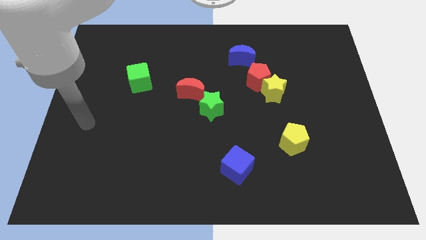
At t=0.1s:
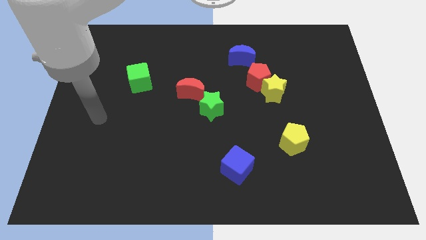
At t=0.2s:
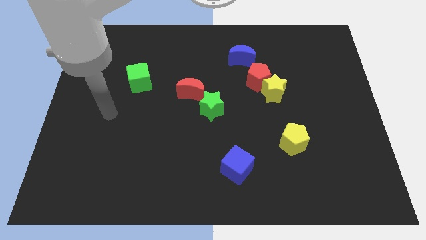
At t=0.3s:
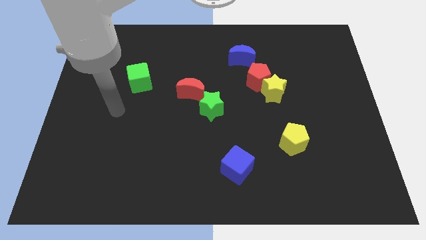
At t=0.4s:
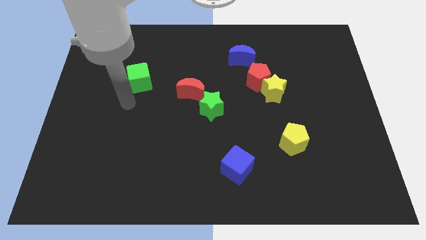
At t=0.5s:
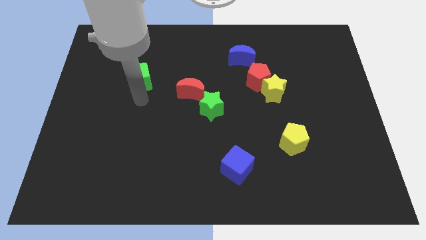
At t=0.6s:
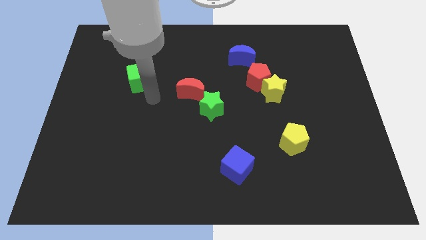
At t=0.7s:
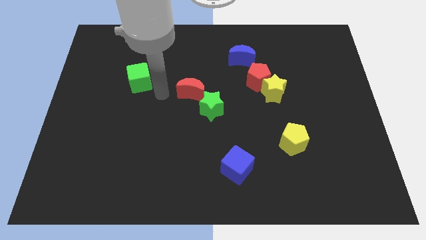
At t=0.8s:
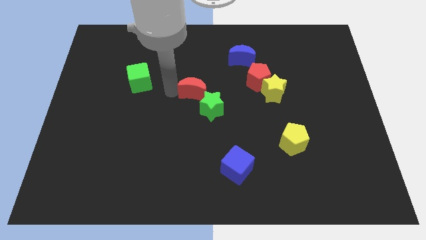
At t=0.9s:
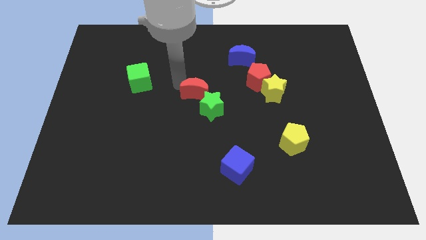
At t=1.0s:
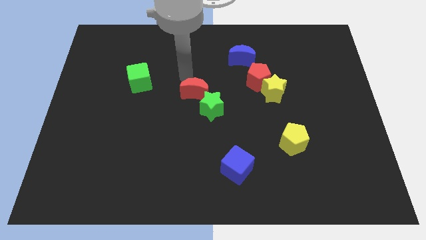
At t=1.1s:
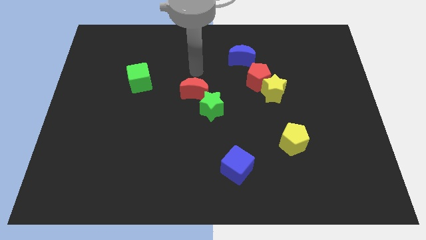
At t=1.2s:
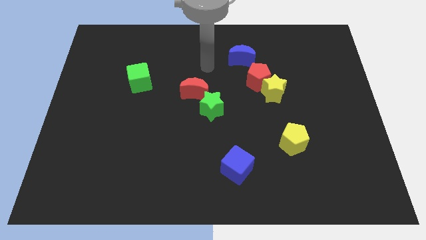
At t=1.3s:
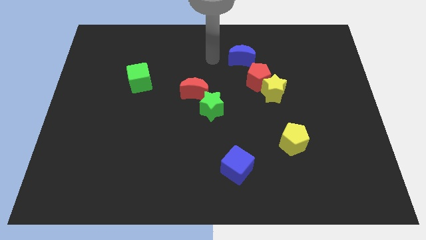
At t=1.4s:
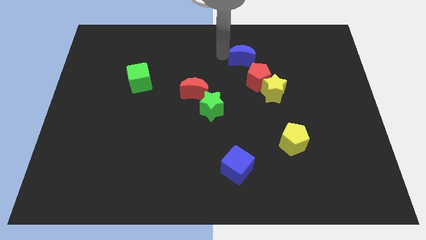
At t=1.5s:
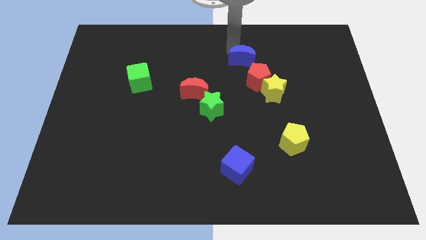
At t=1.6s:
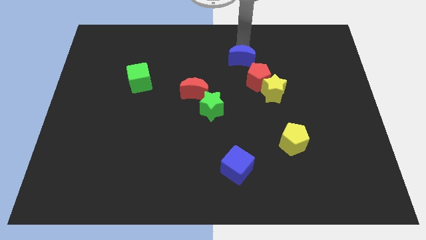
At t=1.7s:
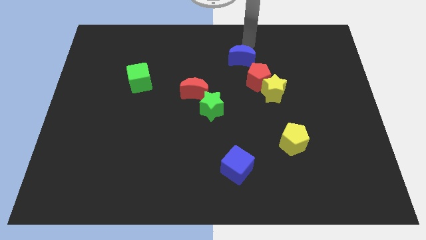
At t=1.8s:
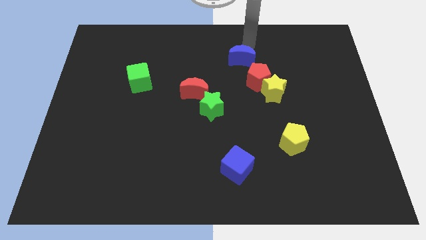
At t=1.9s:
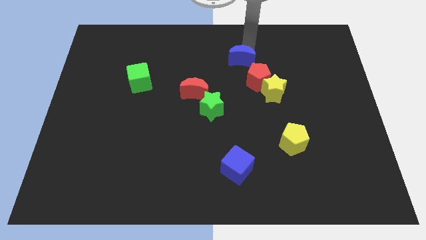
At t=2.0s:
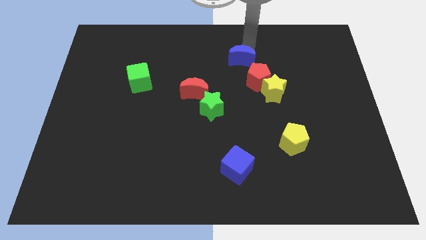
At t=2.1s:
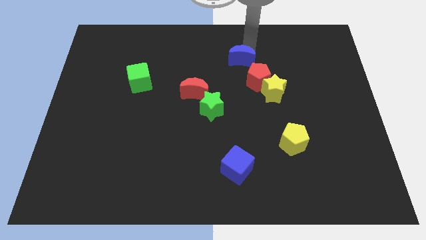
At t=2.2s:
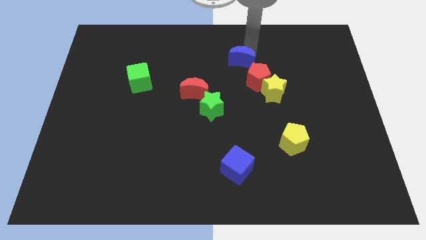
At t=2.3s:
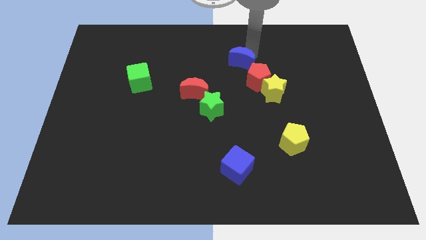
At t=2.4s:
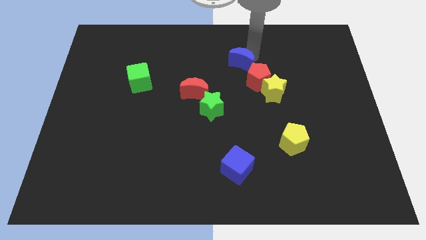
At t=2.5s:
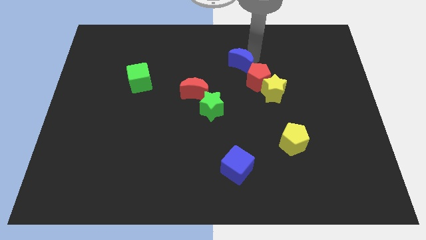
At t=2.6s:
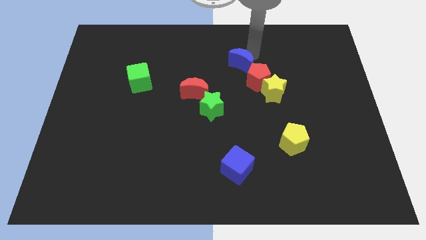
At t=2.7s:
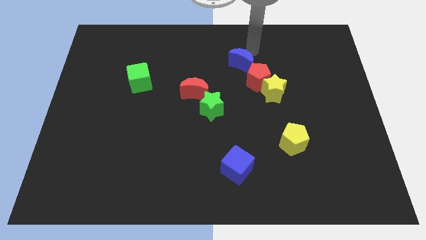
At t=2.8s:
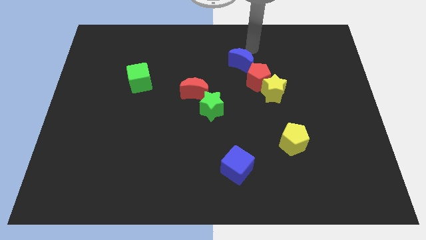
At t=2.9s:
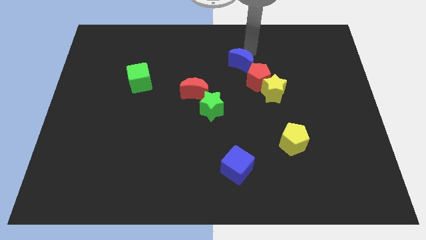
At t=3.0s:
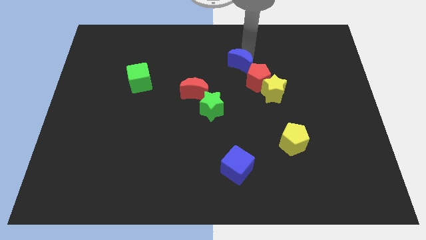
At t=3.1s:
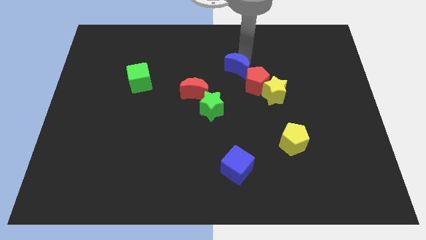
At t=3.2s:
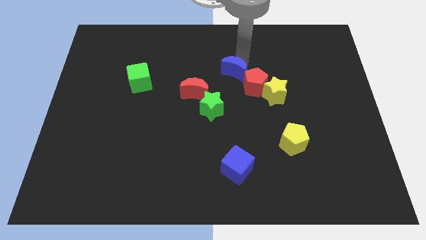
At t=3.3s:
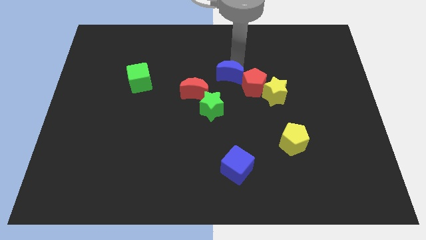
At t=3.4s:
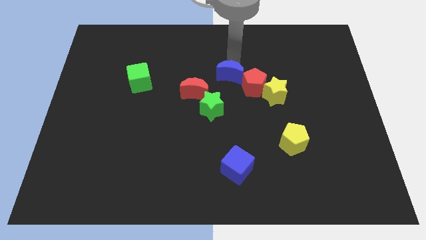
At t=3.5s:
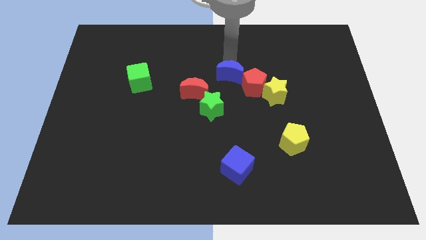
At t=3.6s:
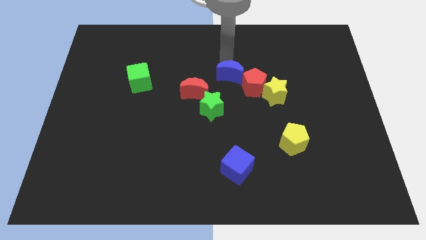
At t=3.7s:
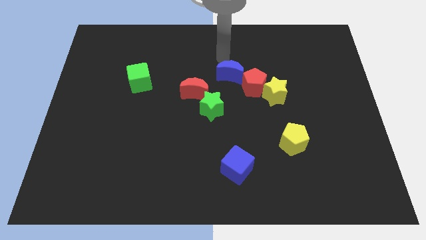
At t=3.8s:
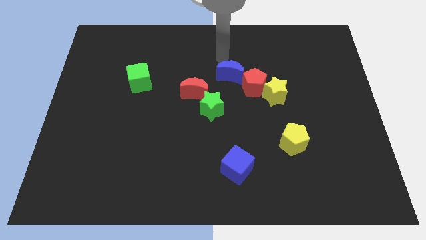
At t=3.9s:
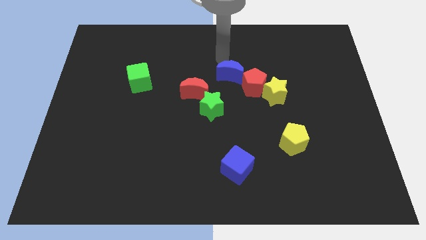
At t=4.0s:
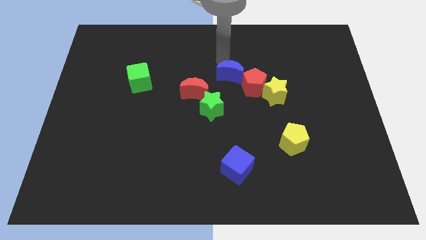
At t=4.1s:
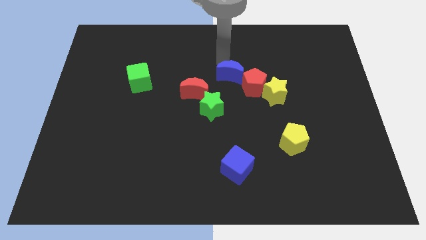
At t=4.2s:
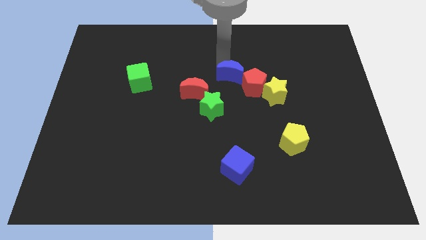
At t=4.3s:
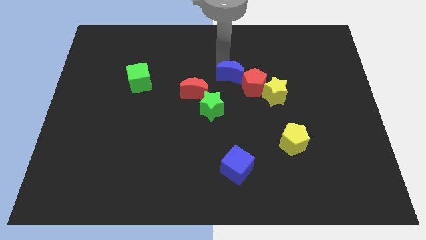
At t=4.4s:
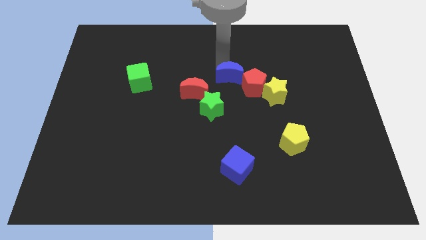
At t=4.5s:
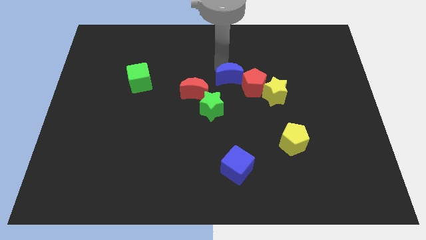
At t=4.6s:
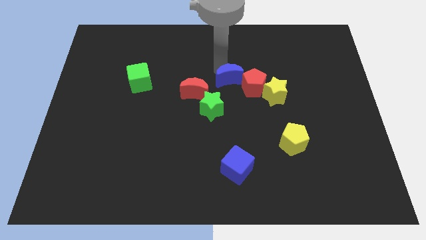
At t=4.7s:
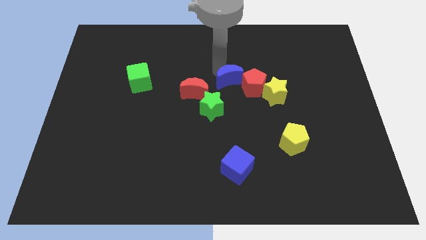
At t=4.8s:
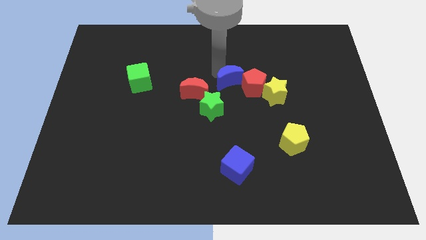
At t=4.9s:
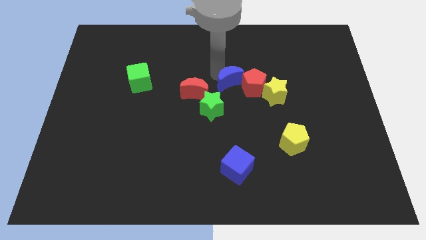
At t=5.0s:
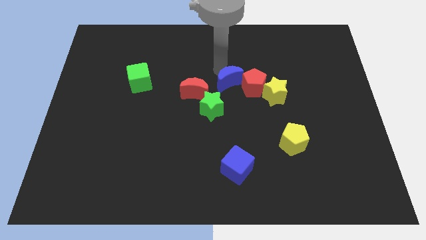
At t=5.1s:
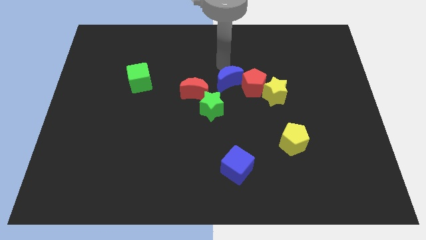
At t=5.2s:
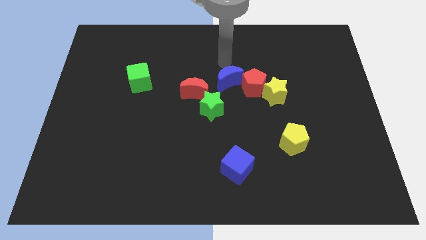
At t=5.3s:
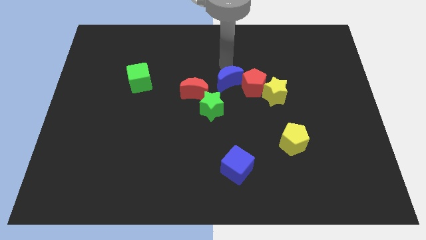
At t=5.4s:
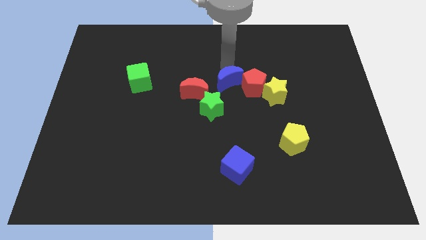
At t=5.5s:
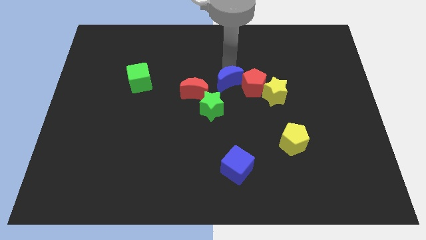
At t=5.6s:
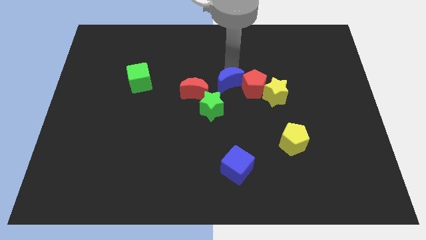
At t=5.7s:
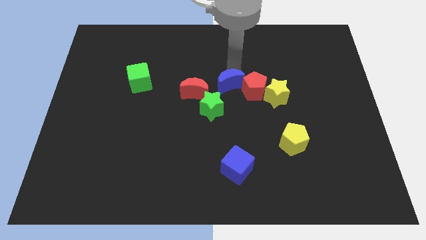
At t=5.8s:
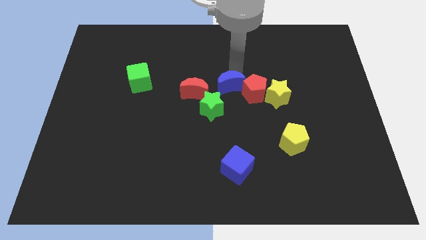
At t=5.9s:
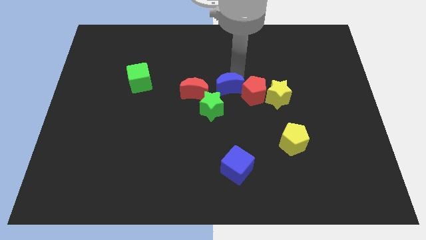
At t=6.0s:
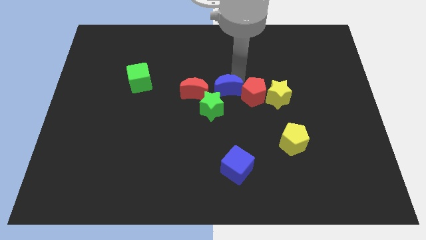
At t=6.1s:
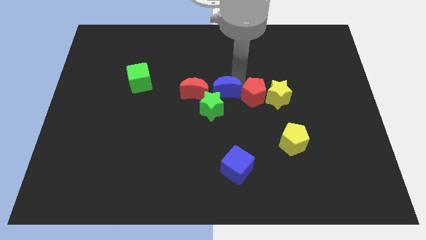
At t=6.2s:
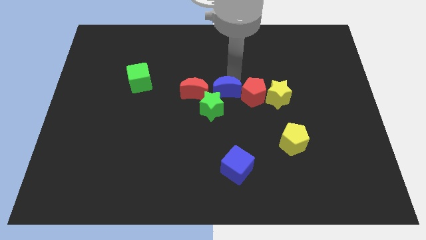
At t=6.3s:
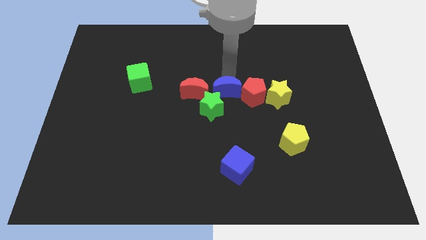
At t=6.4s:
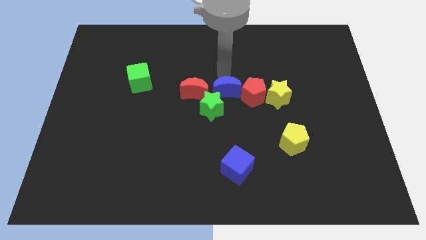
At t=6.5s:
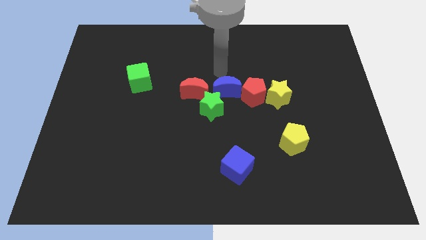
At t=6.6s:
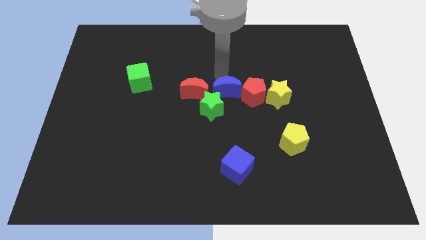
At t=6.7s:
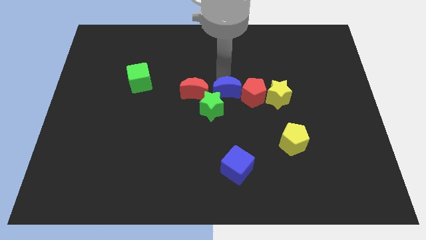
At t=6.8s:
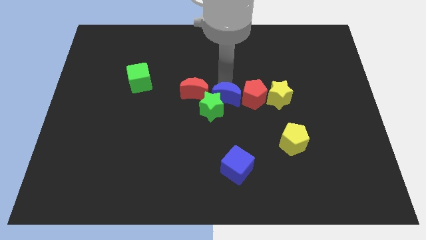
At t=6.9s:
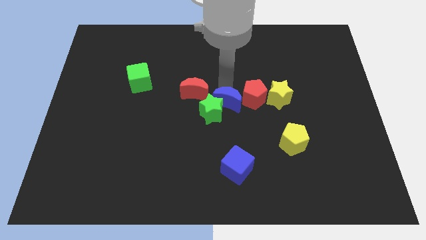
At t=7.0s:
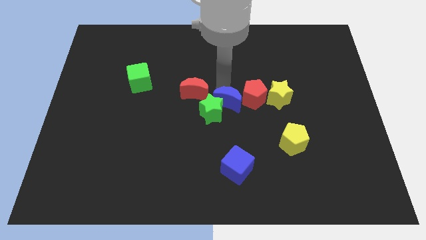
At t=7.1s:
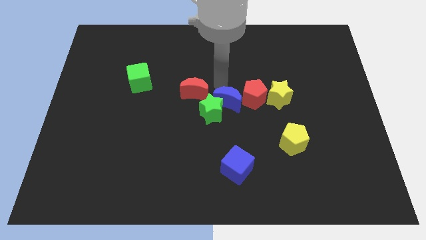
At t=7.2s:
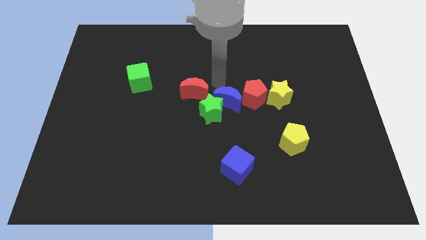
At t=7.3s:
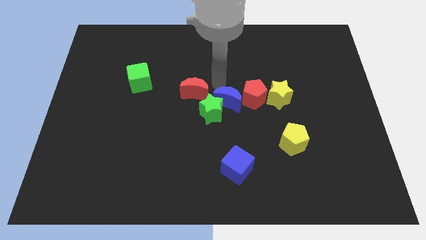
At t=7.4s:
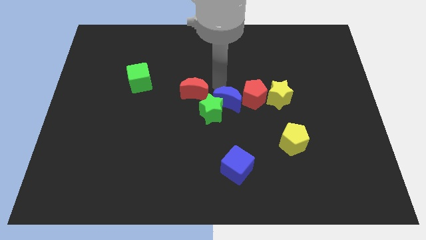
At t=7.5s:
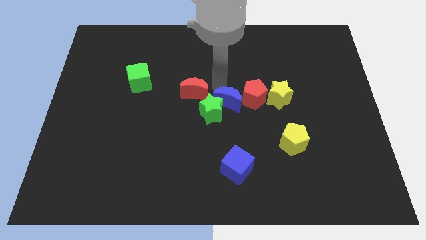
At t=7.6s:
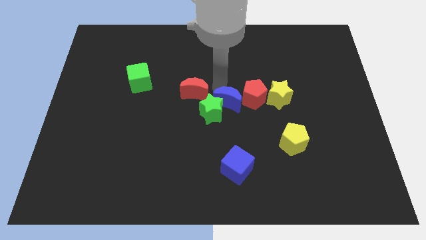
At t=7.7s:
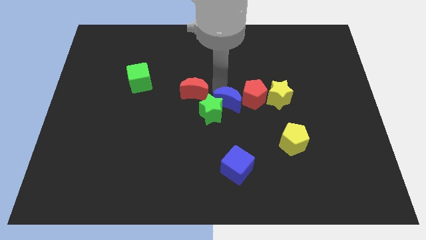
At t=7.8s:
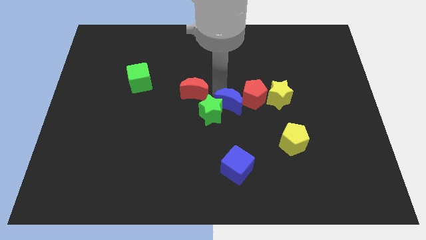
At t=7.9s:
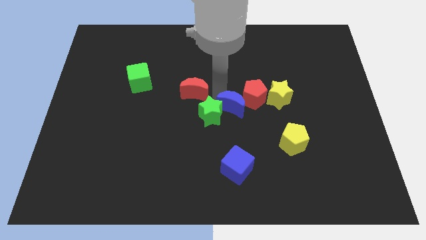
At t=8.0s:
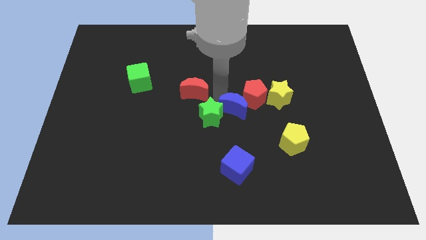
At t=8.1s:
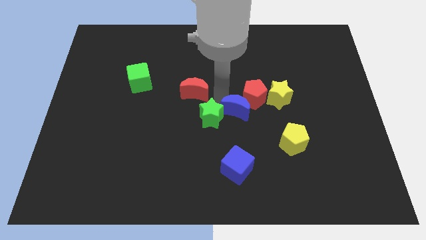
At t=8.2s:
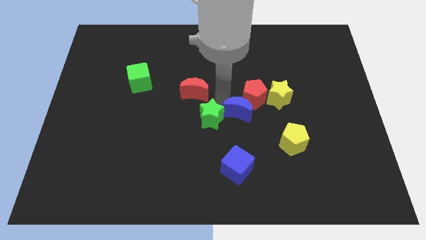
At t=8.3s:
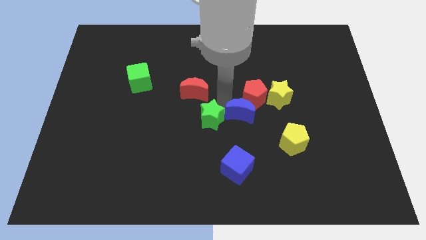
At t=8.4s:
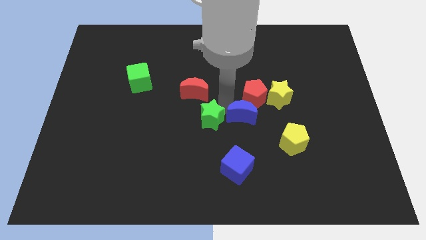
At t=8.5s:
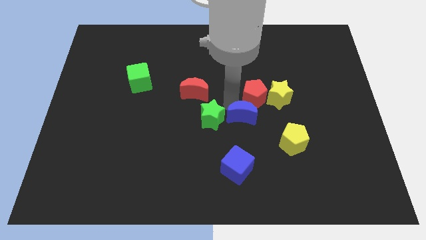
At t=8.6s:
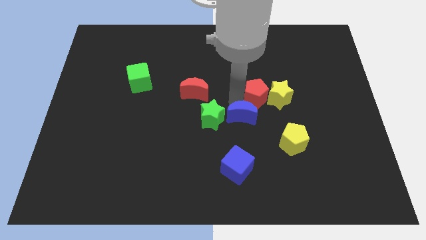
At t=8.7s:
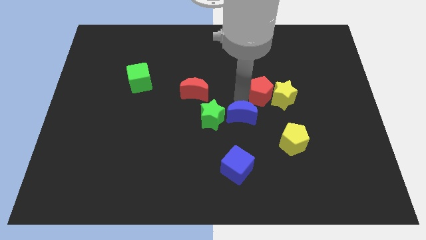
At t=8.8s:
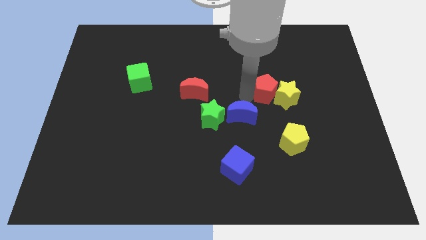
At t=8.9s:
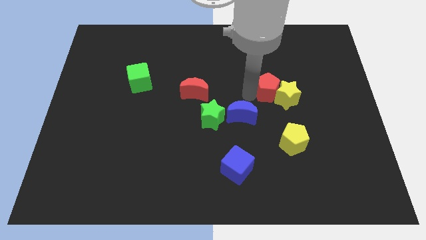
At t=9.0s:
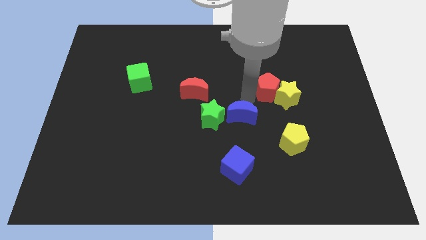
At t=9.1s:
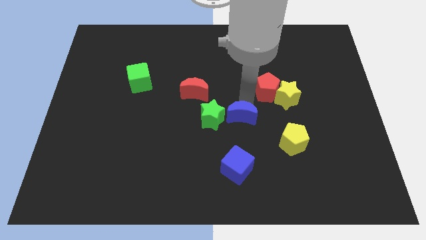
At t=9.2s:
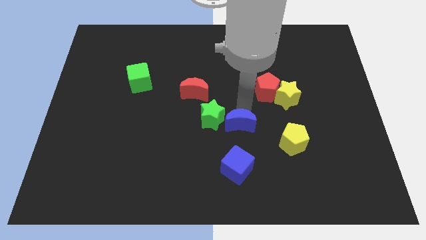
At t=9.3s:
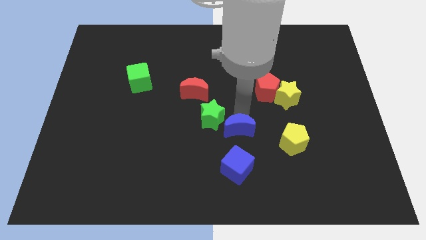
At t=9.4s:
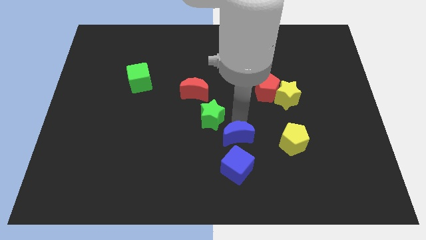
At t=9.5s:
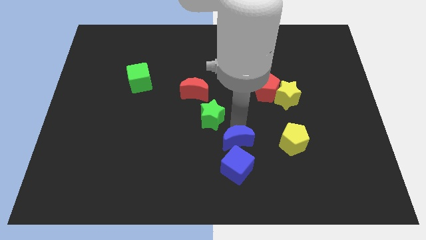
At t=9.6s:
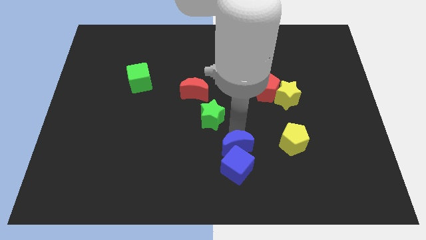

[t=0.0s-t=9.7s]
slide the blue moon next to the blue cube
